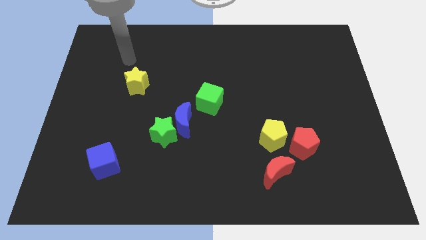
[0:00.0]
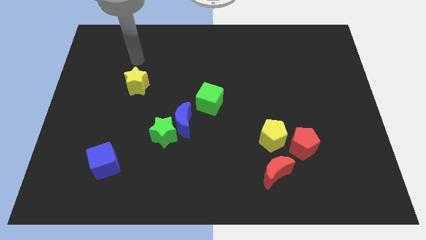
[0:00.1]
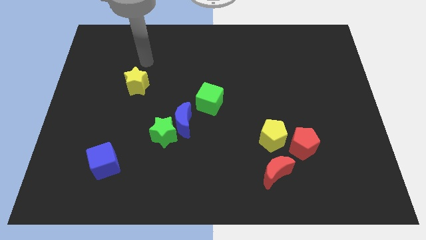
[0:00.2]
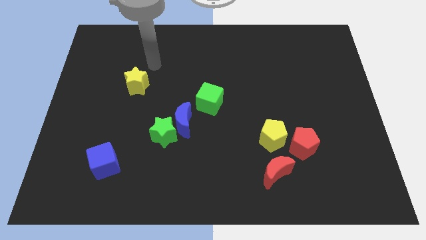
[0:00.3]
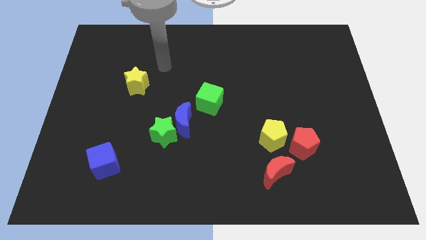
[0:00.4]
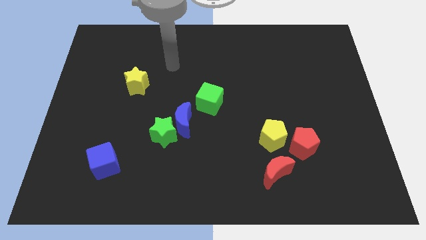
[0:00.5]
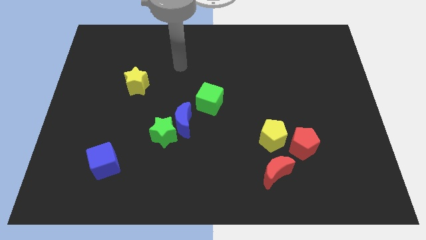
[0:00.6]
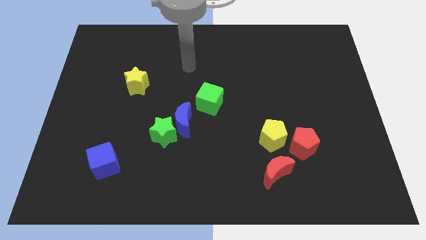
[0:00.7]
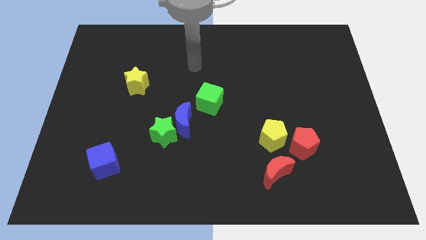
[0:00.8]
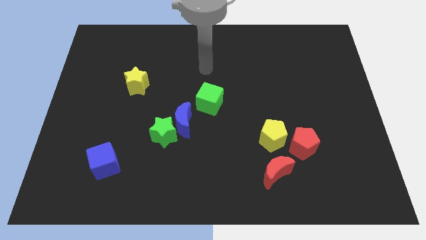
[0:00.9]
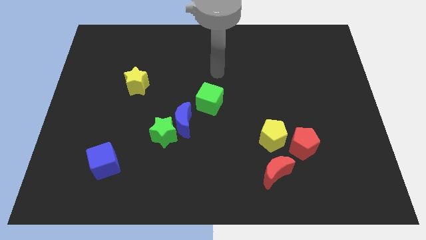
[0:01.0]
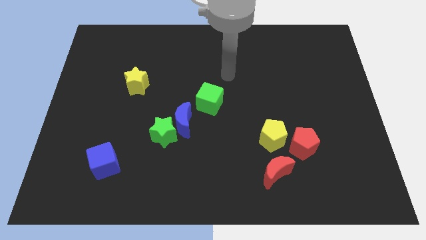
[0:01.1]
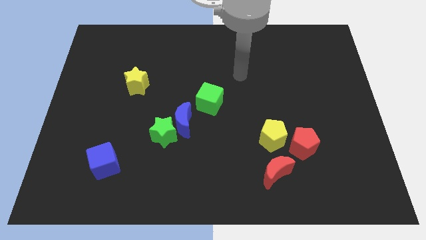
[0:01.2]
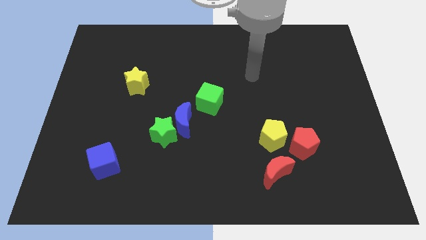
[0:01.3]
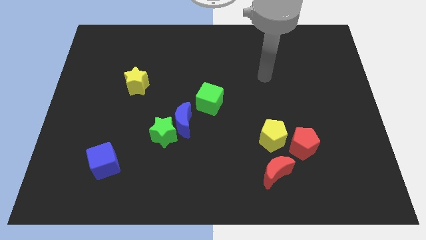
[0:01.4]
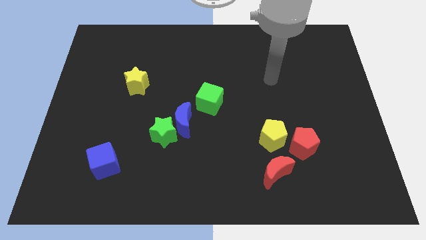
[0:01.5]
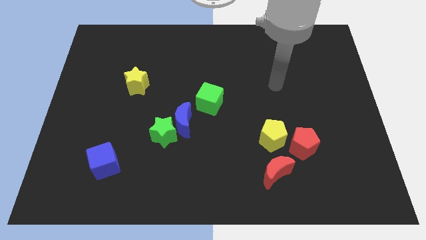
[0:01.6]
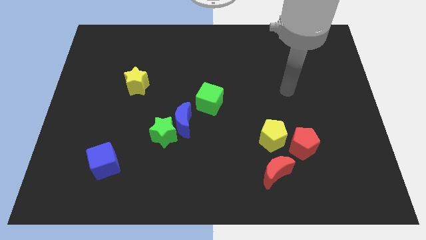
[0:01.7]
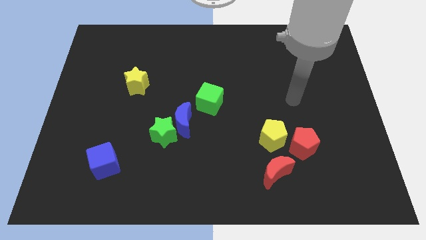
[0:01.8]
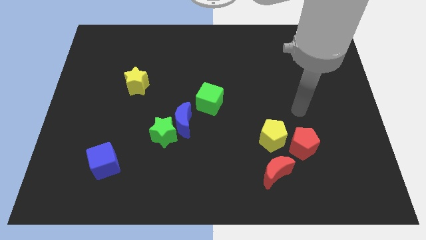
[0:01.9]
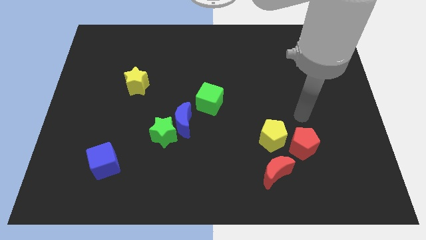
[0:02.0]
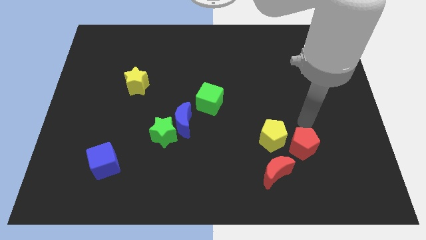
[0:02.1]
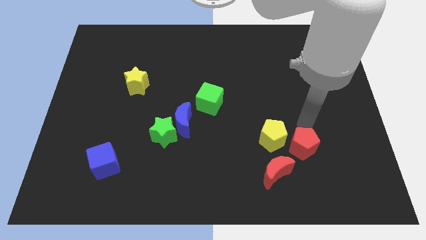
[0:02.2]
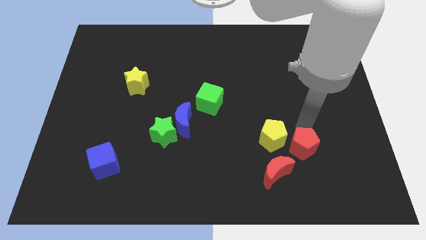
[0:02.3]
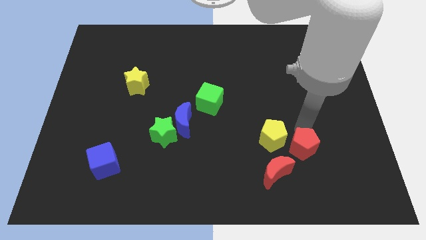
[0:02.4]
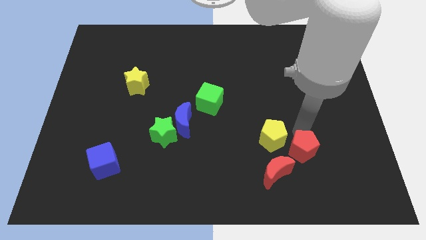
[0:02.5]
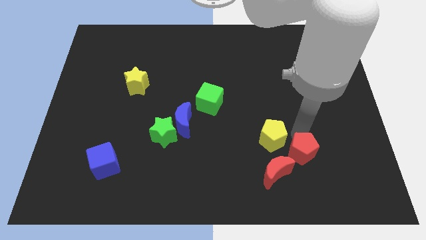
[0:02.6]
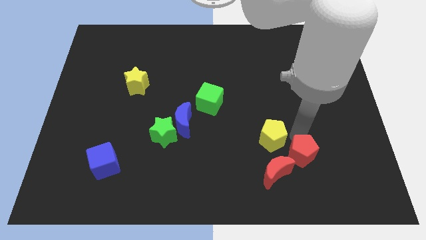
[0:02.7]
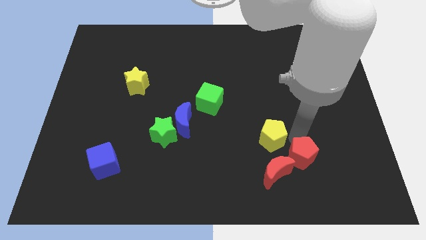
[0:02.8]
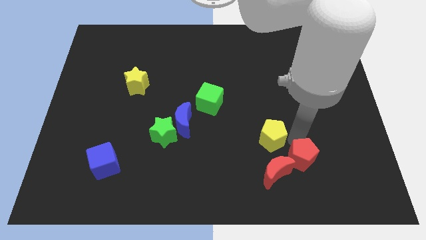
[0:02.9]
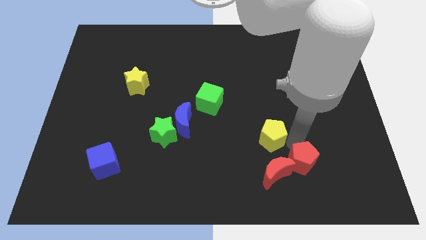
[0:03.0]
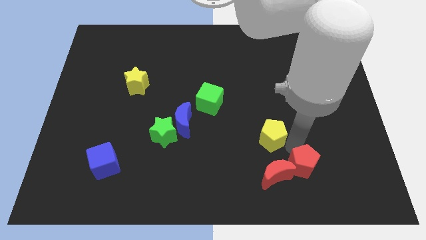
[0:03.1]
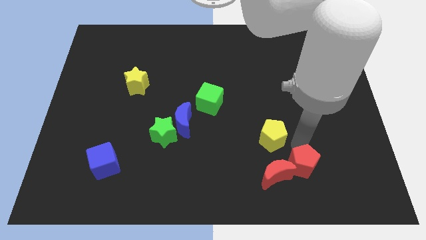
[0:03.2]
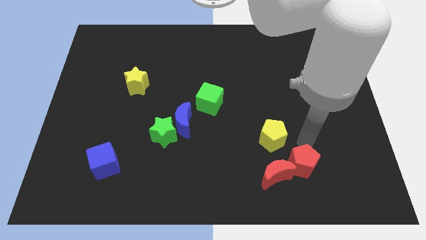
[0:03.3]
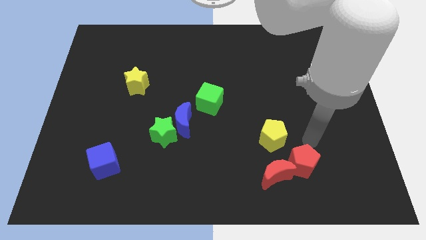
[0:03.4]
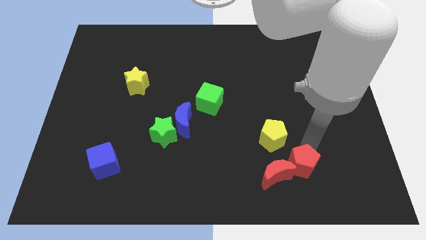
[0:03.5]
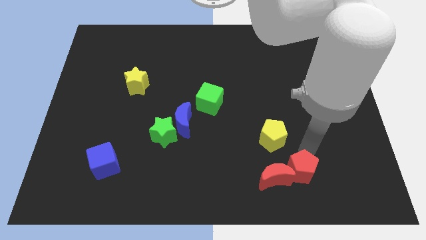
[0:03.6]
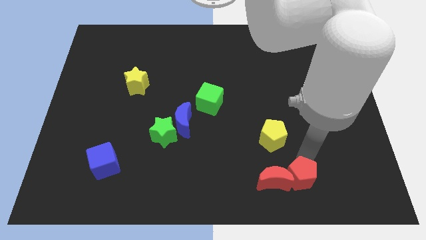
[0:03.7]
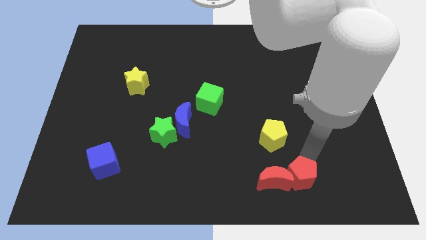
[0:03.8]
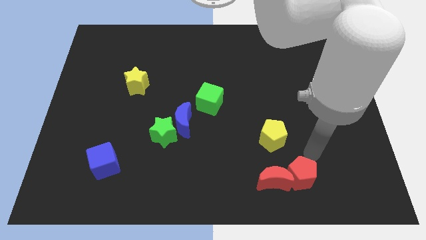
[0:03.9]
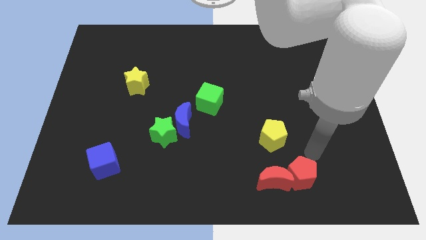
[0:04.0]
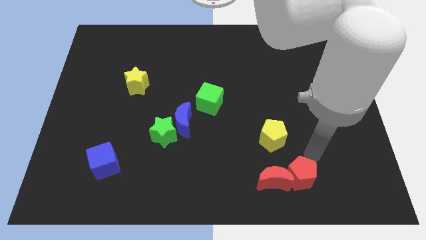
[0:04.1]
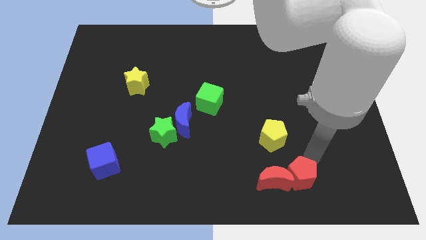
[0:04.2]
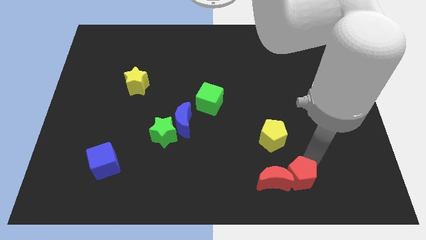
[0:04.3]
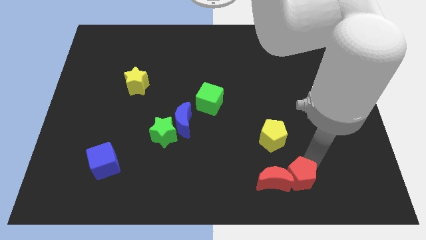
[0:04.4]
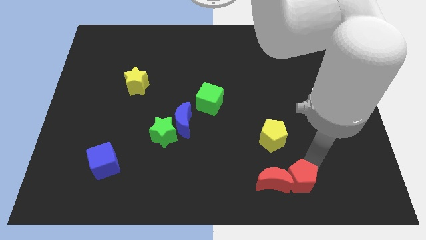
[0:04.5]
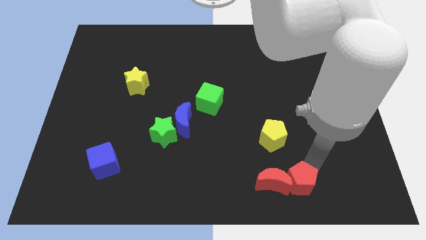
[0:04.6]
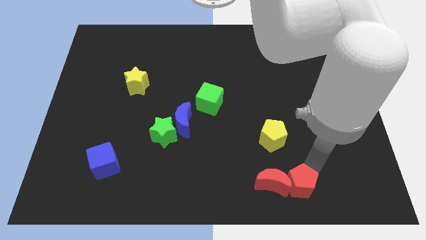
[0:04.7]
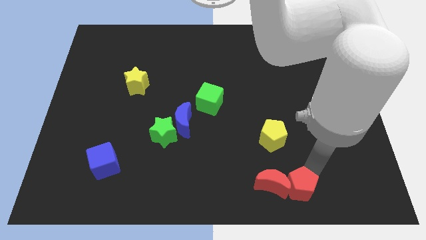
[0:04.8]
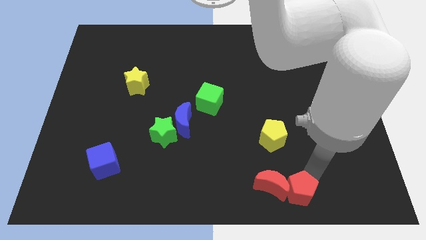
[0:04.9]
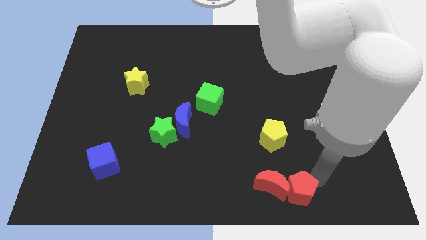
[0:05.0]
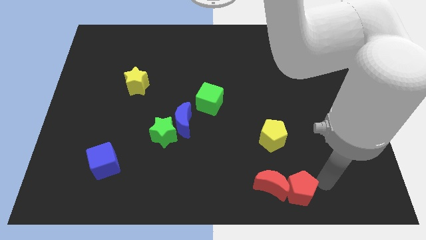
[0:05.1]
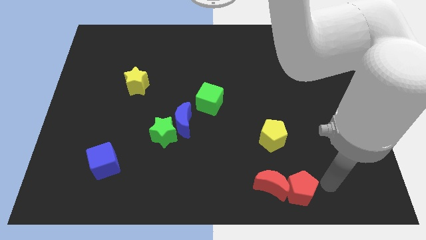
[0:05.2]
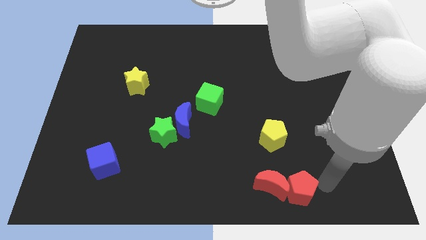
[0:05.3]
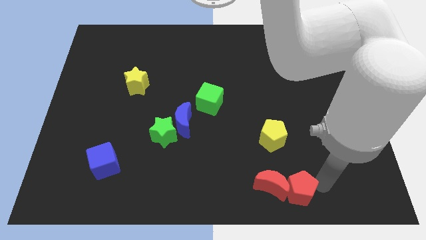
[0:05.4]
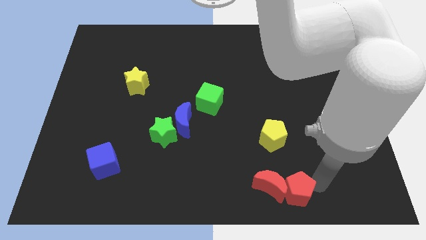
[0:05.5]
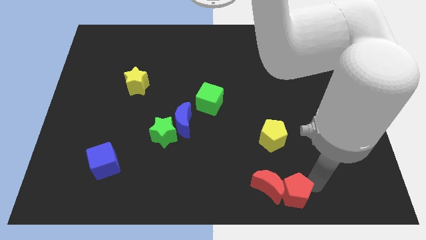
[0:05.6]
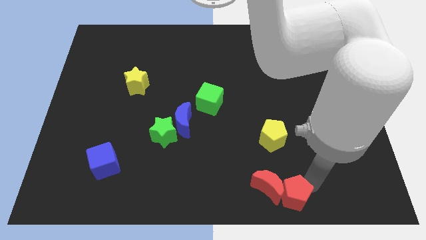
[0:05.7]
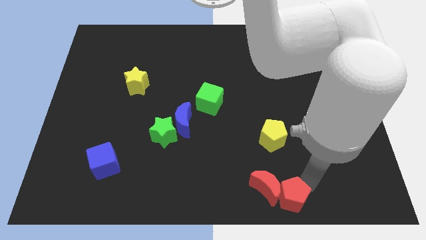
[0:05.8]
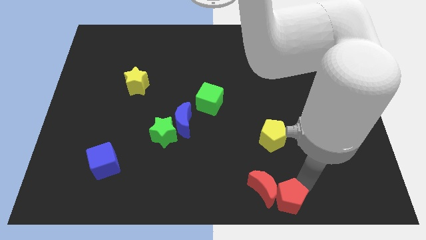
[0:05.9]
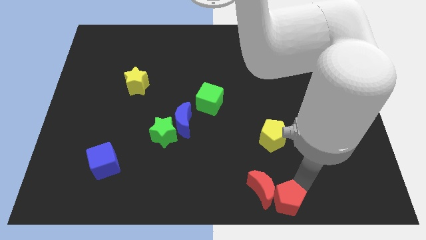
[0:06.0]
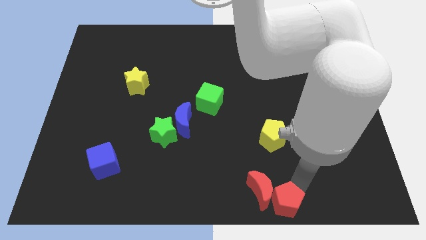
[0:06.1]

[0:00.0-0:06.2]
put the red pentagon to the bottom
